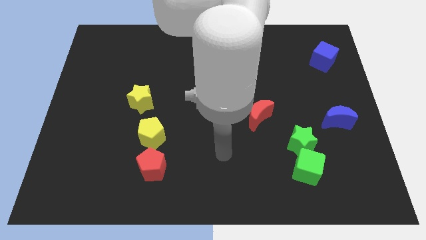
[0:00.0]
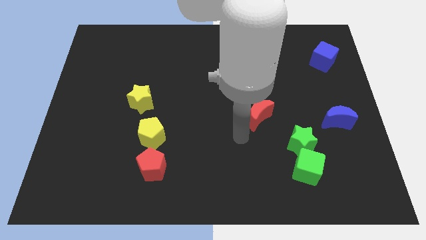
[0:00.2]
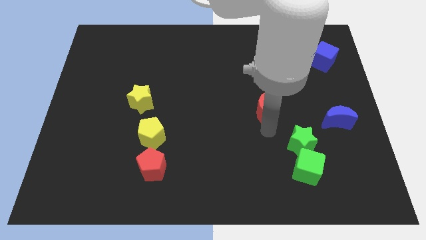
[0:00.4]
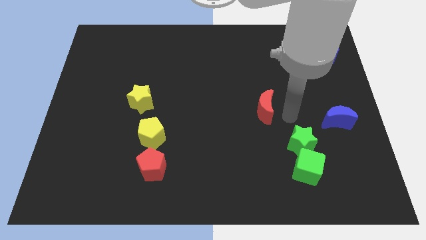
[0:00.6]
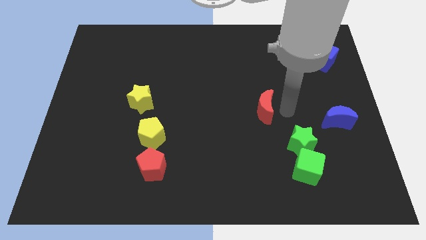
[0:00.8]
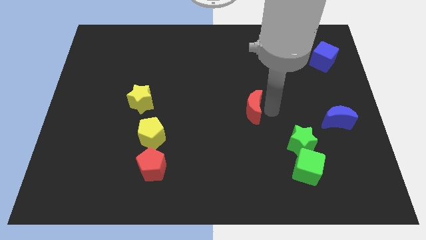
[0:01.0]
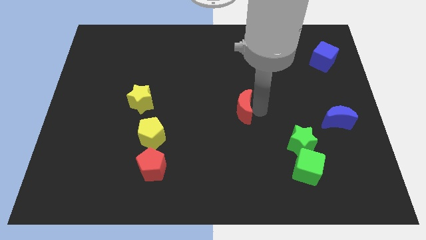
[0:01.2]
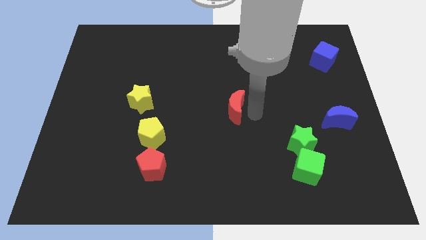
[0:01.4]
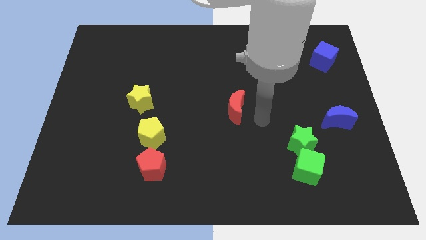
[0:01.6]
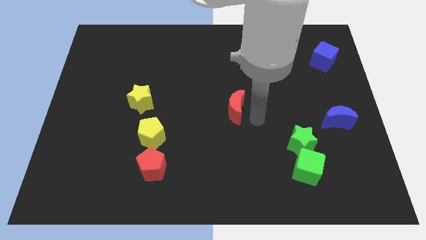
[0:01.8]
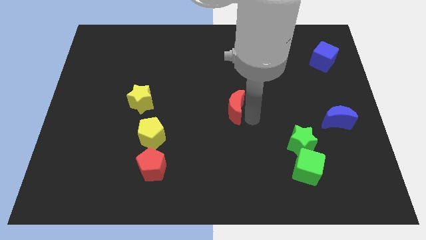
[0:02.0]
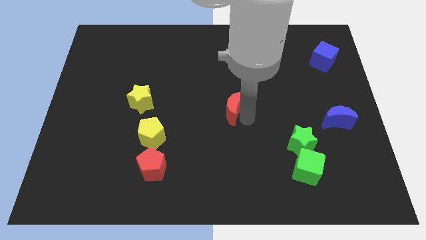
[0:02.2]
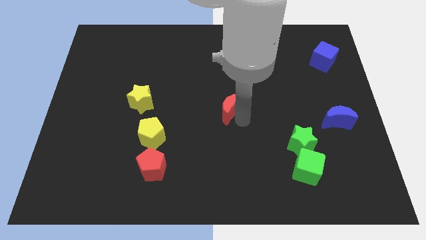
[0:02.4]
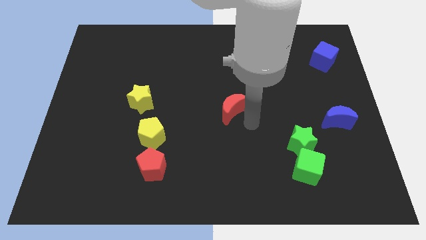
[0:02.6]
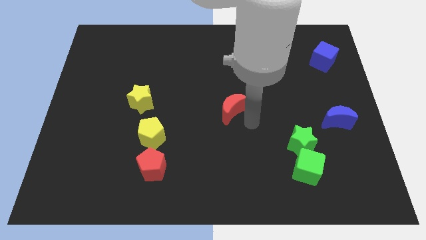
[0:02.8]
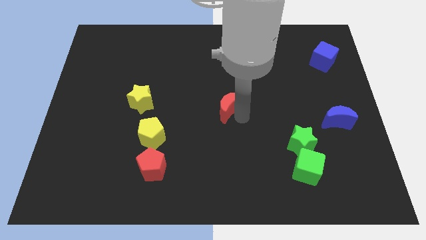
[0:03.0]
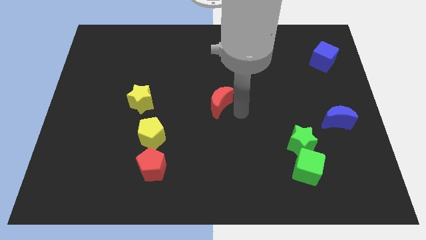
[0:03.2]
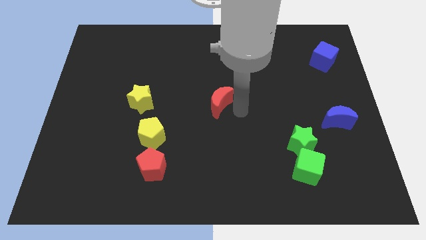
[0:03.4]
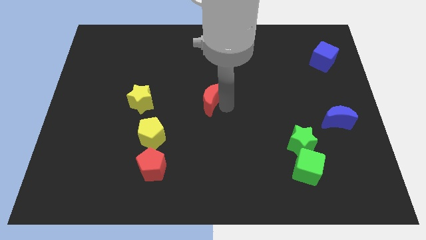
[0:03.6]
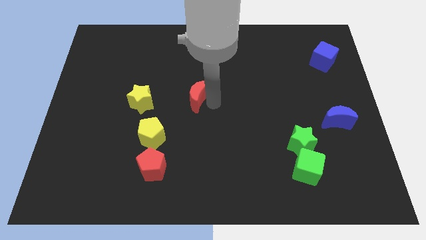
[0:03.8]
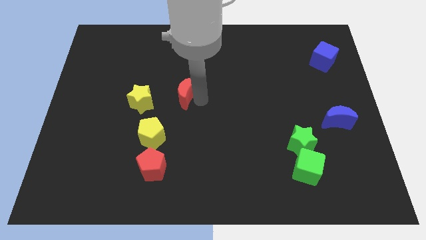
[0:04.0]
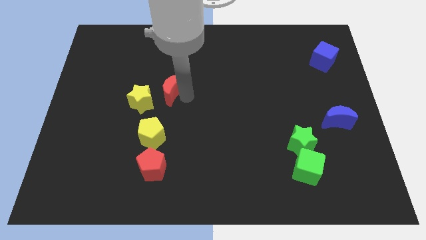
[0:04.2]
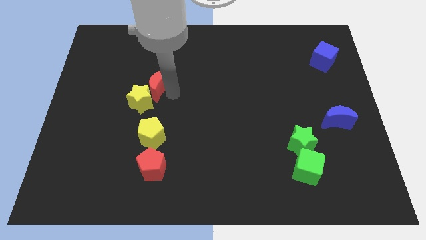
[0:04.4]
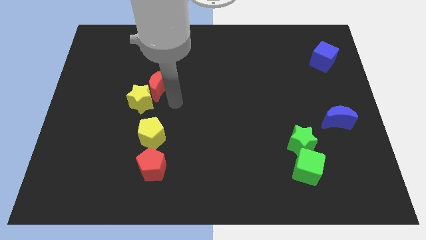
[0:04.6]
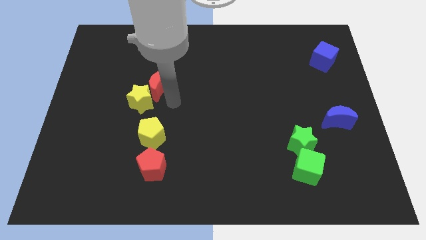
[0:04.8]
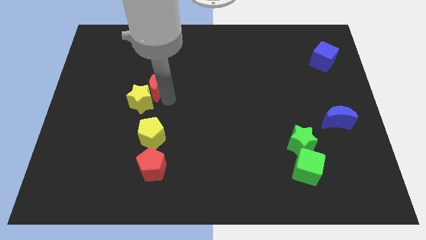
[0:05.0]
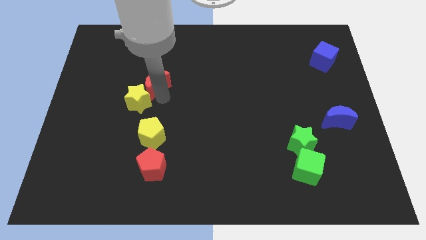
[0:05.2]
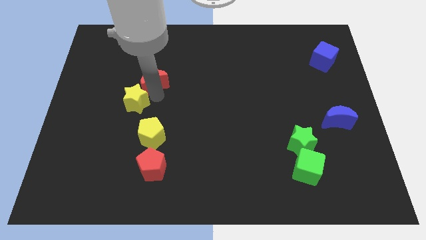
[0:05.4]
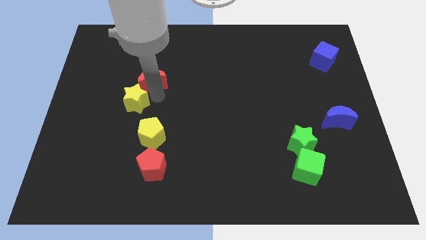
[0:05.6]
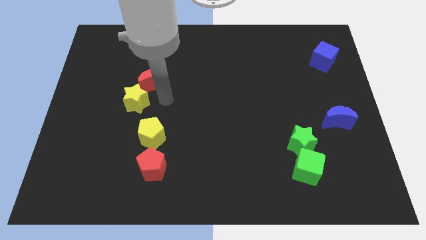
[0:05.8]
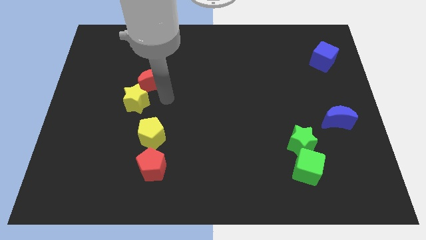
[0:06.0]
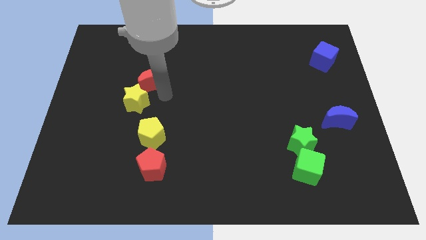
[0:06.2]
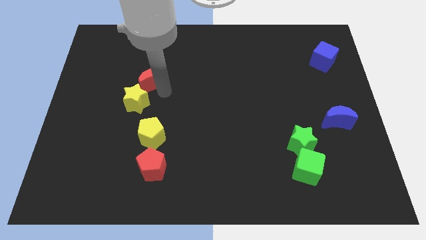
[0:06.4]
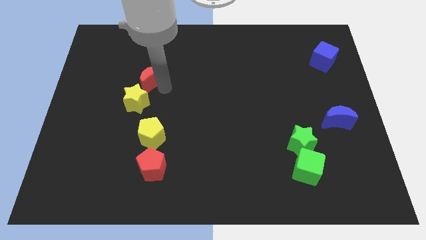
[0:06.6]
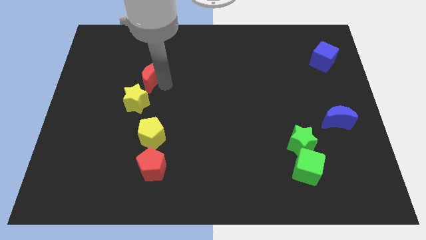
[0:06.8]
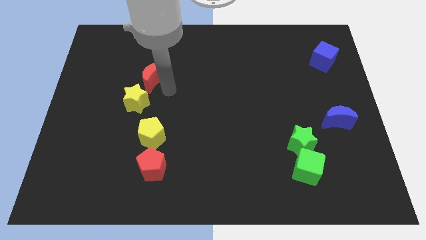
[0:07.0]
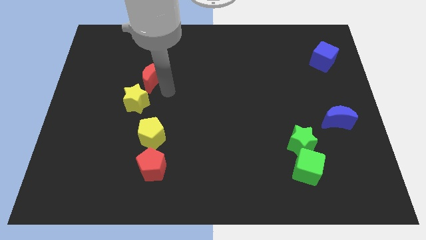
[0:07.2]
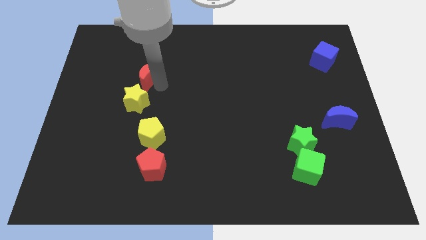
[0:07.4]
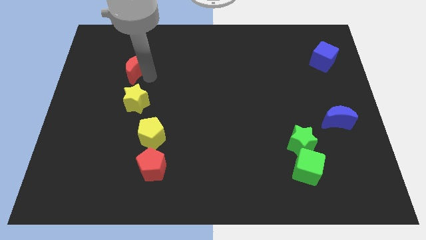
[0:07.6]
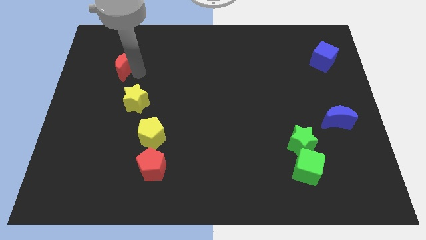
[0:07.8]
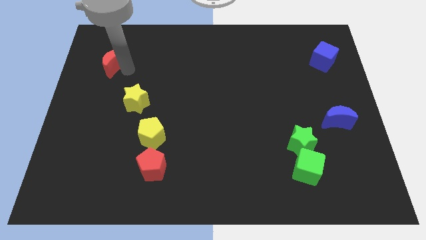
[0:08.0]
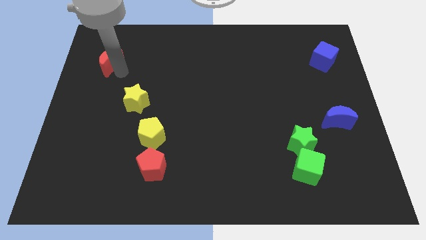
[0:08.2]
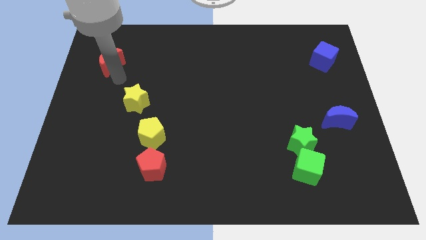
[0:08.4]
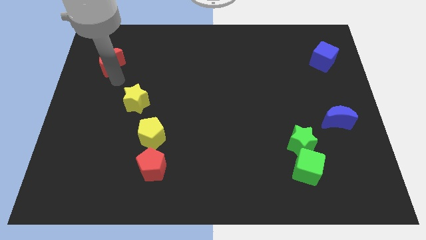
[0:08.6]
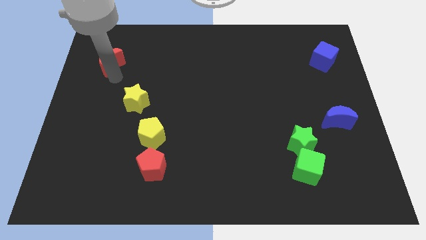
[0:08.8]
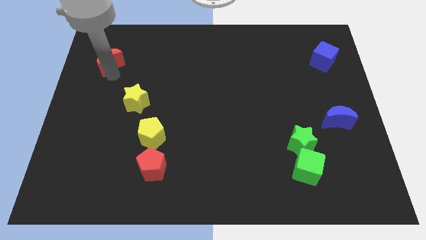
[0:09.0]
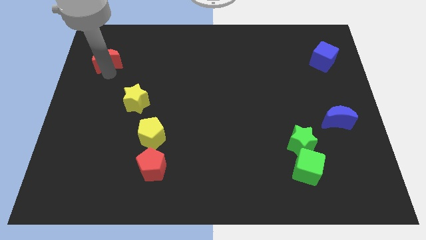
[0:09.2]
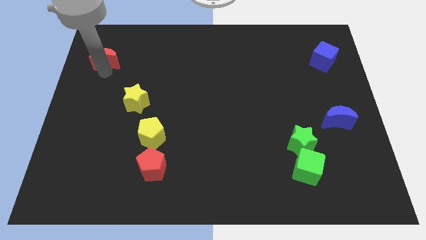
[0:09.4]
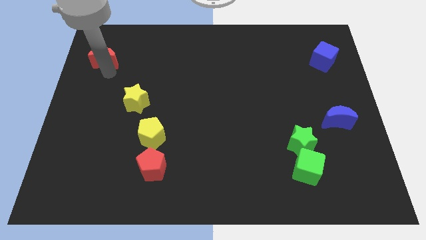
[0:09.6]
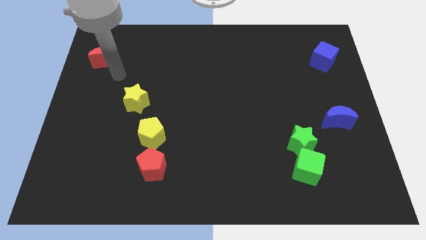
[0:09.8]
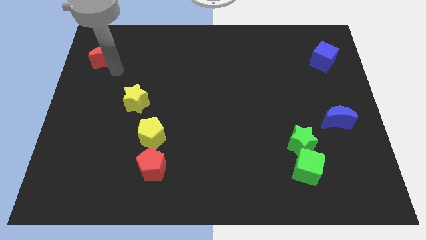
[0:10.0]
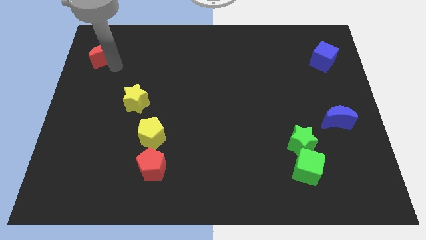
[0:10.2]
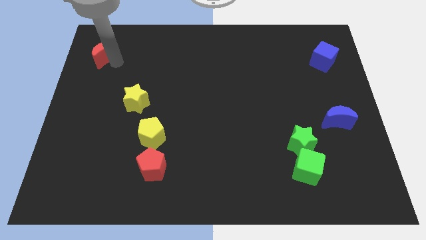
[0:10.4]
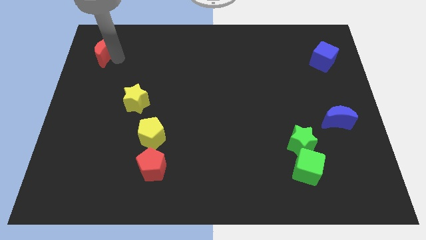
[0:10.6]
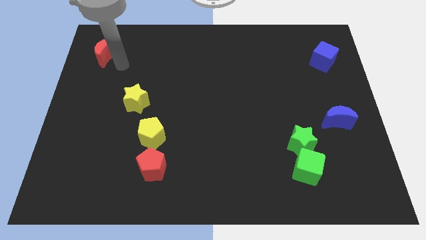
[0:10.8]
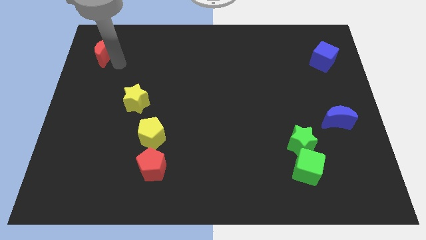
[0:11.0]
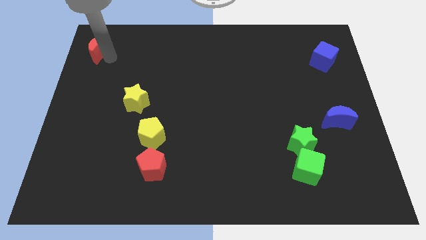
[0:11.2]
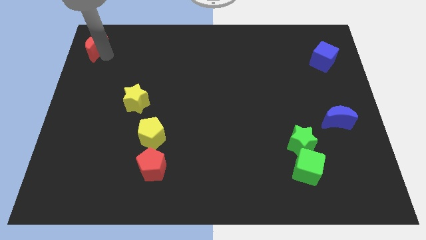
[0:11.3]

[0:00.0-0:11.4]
slide the red moon to the top left corner

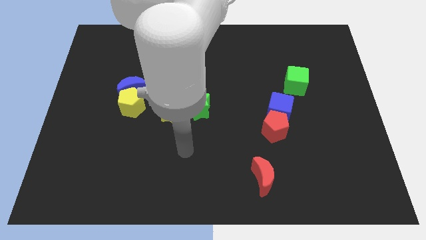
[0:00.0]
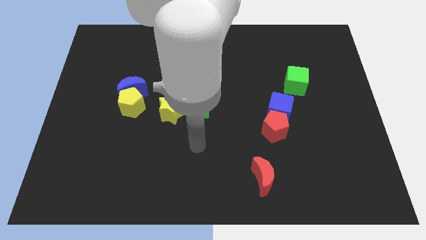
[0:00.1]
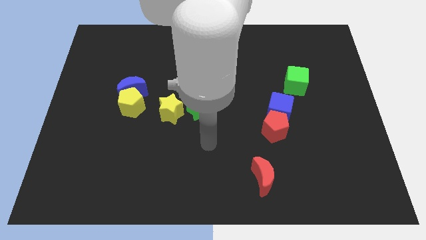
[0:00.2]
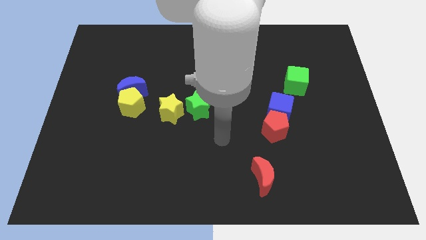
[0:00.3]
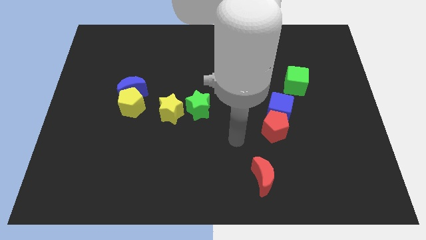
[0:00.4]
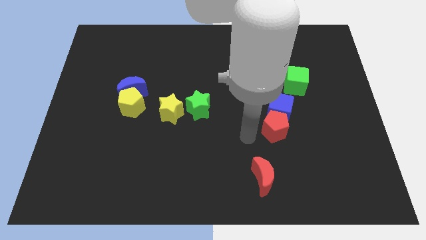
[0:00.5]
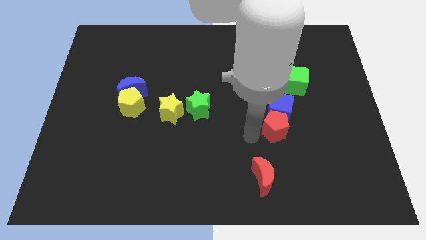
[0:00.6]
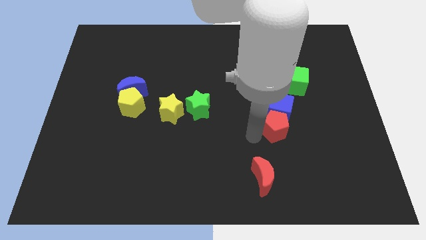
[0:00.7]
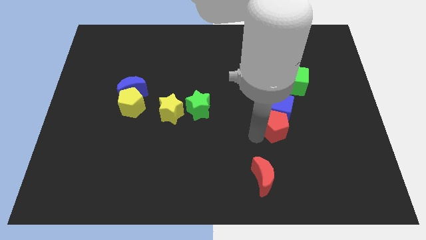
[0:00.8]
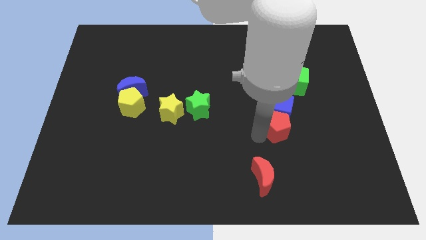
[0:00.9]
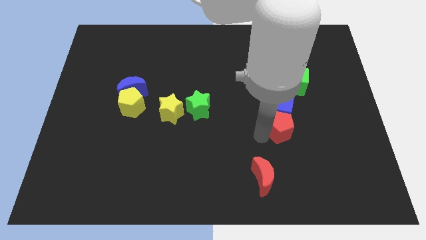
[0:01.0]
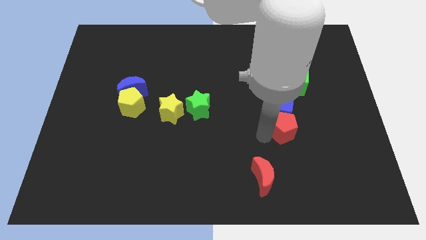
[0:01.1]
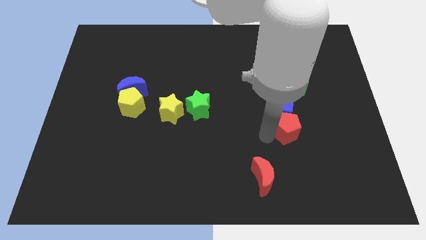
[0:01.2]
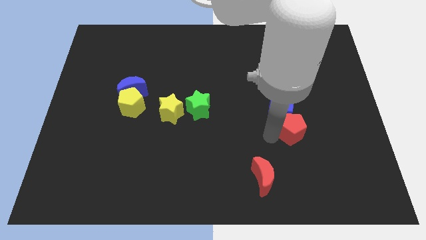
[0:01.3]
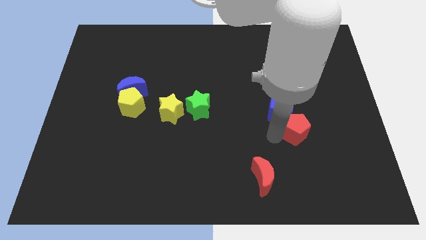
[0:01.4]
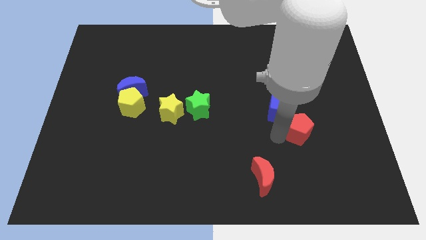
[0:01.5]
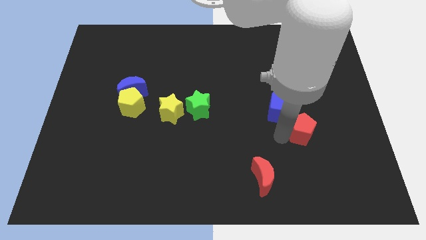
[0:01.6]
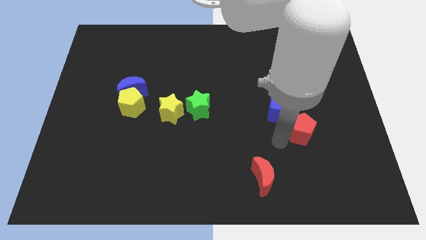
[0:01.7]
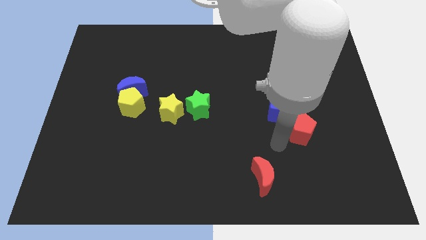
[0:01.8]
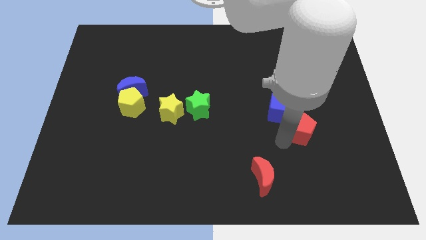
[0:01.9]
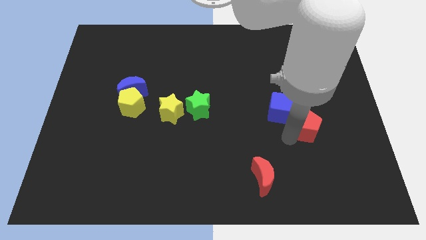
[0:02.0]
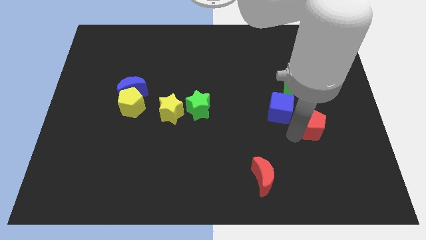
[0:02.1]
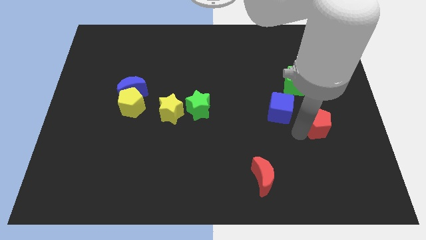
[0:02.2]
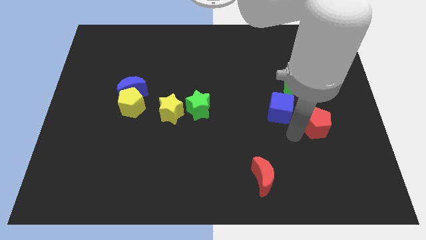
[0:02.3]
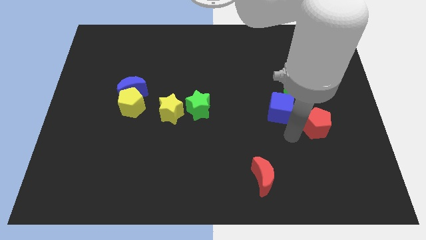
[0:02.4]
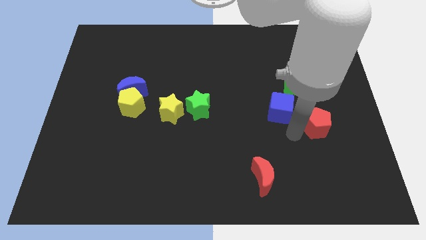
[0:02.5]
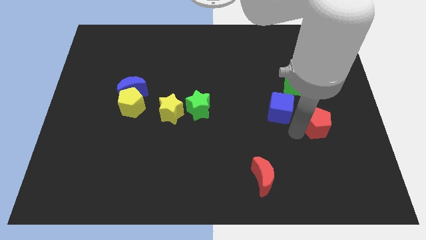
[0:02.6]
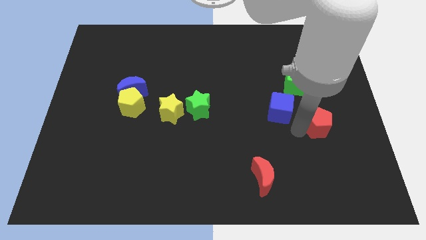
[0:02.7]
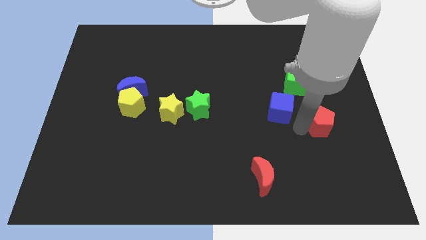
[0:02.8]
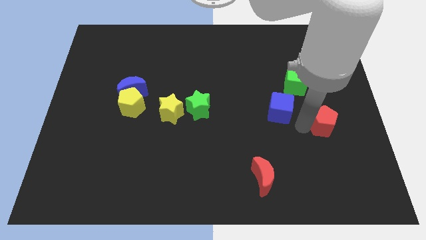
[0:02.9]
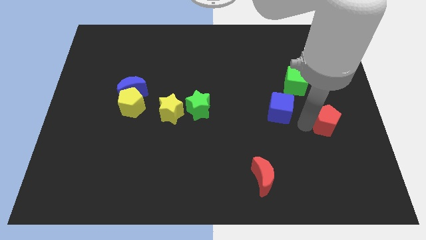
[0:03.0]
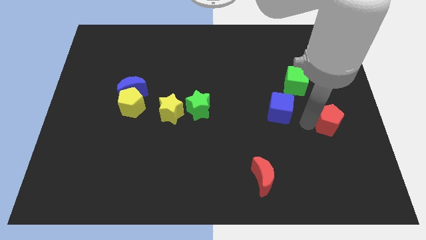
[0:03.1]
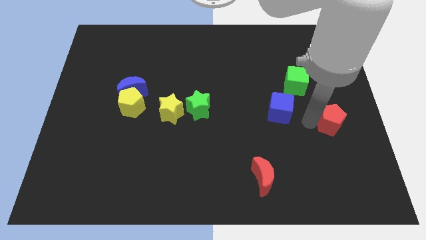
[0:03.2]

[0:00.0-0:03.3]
move the red pentagon to the right side
